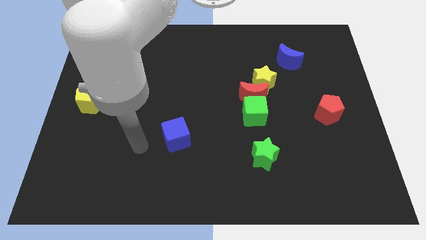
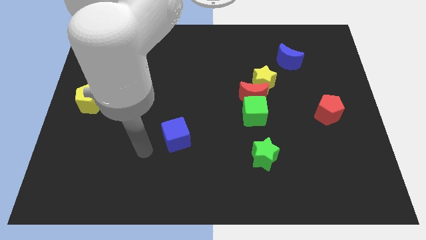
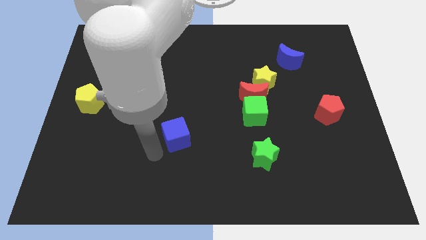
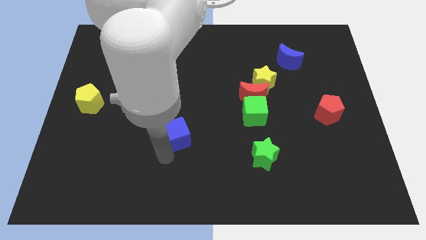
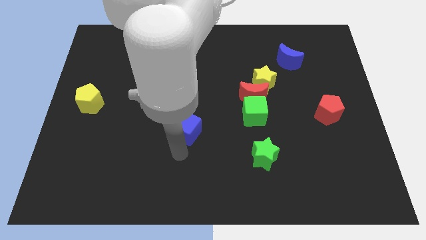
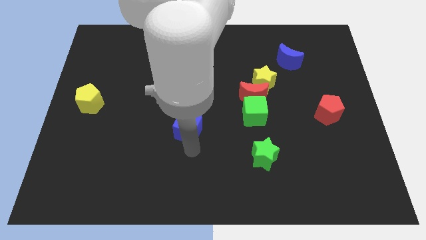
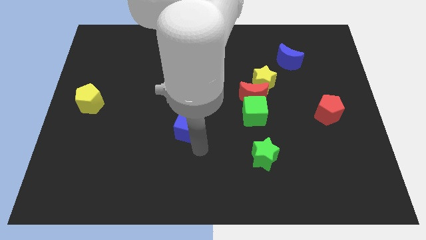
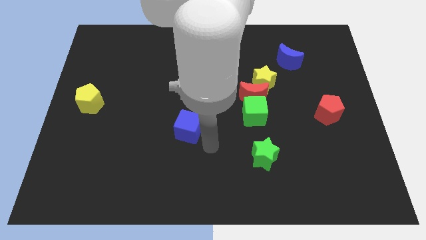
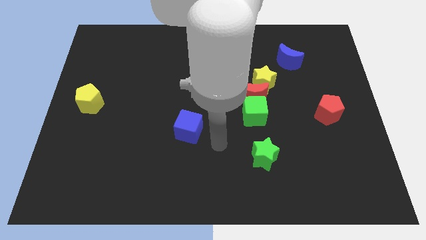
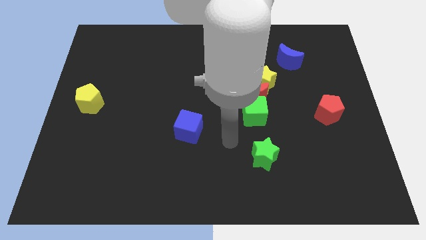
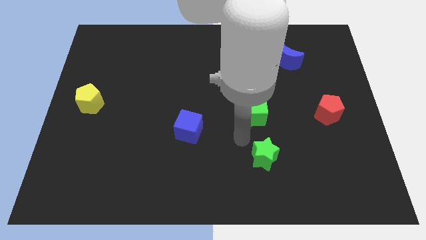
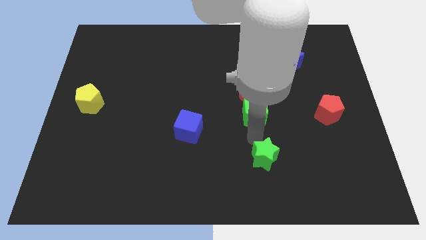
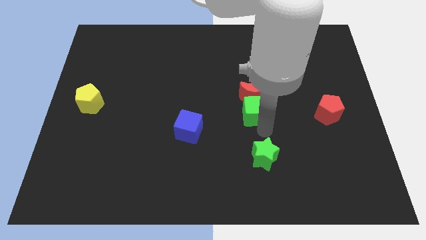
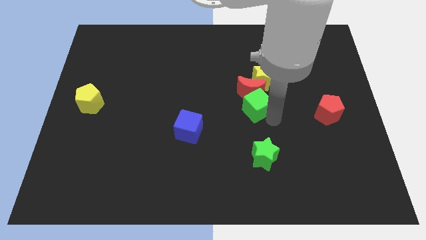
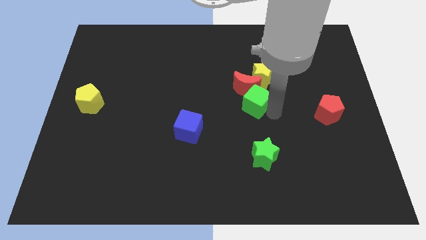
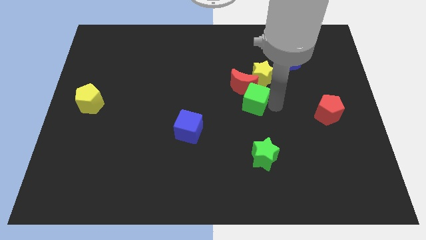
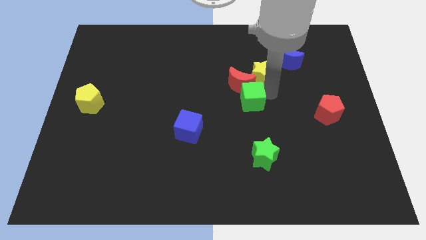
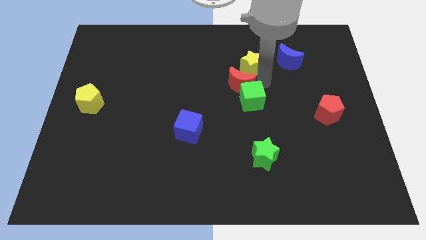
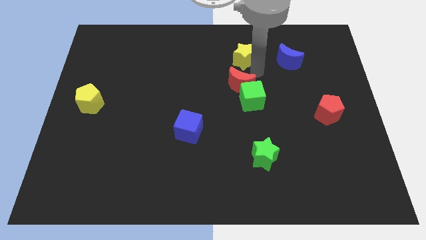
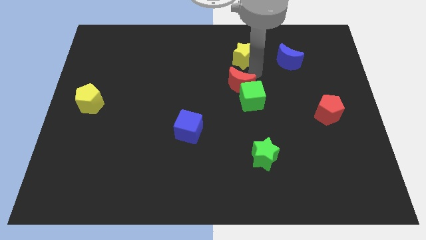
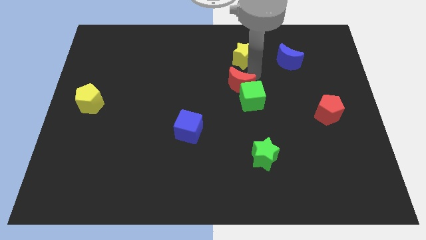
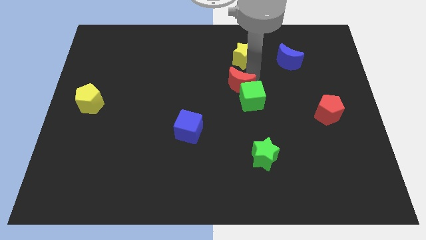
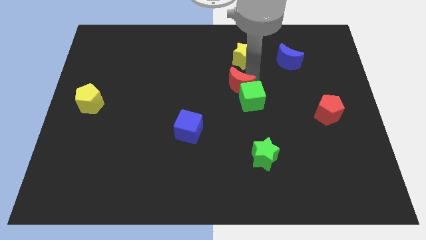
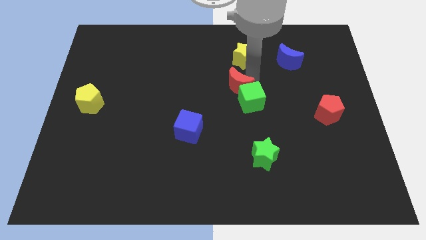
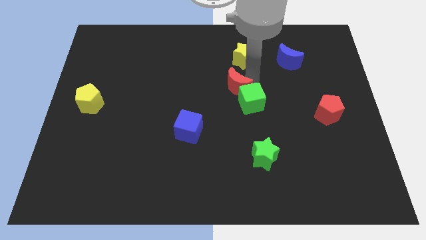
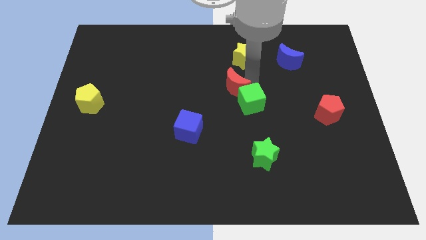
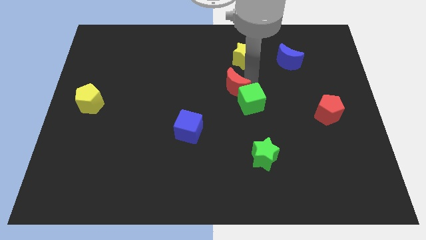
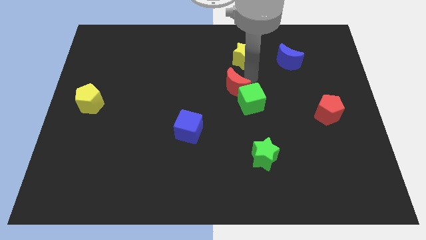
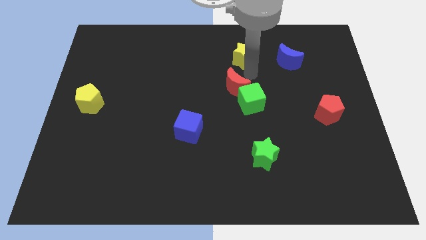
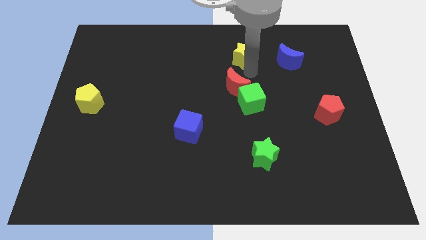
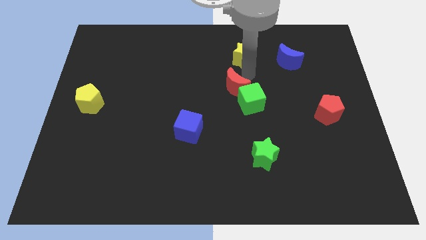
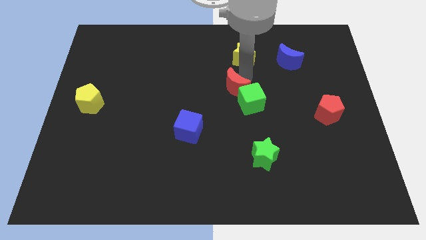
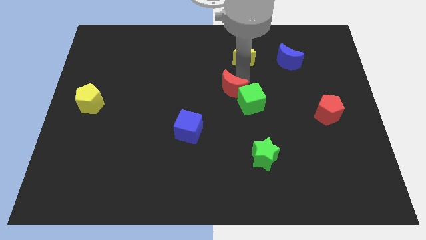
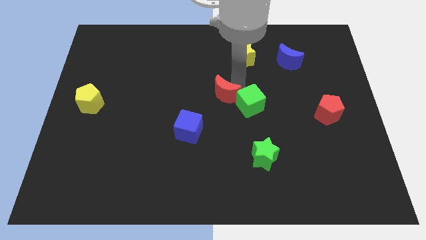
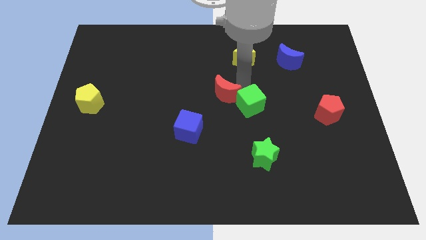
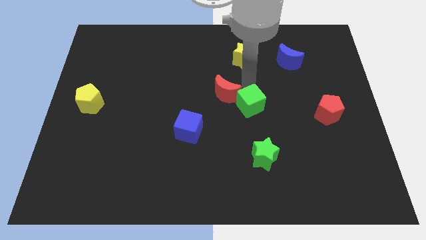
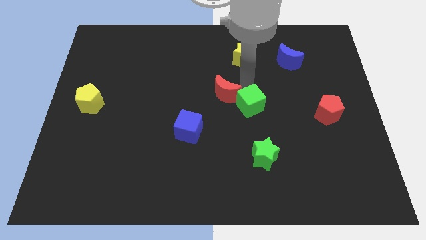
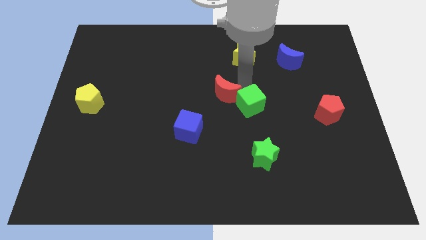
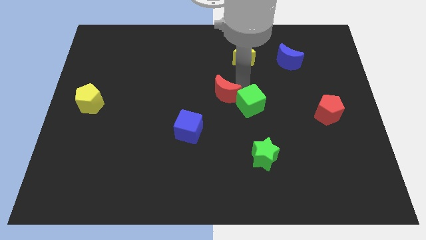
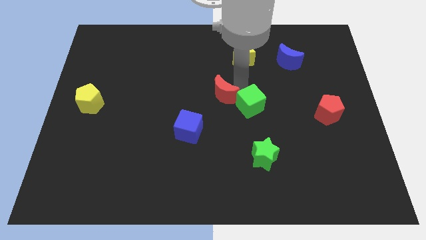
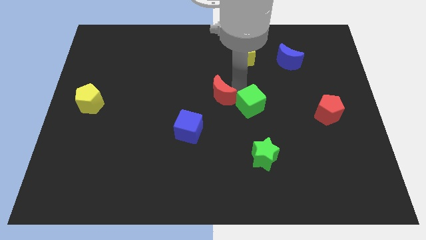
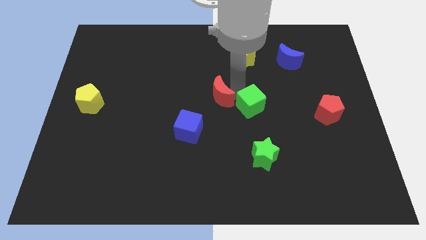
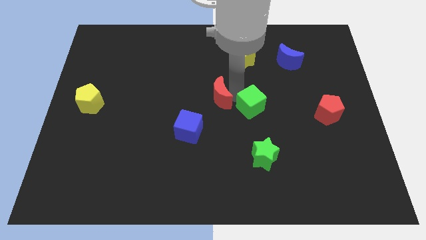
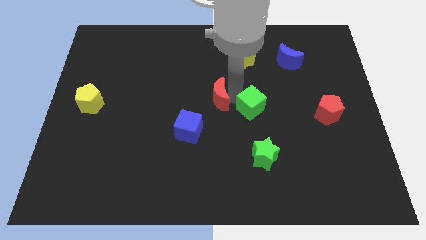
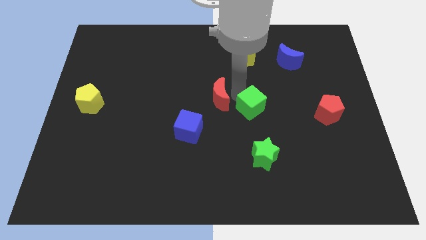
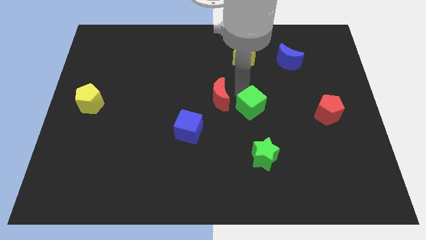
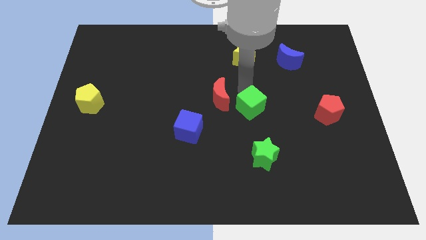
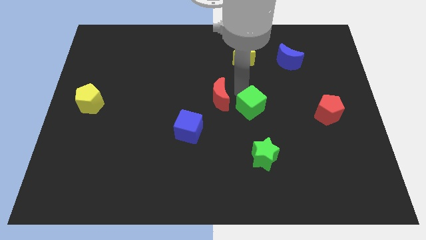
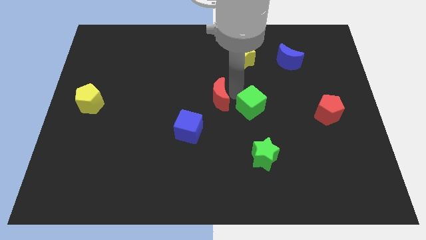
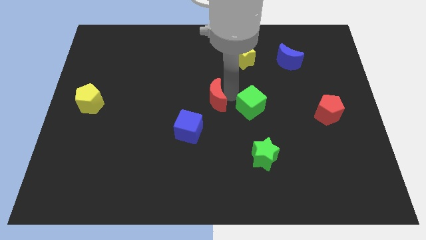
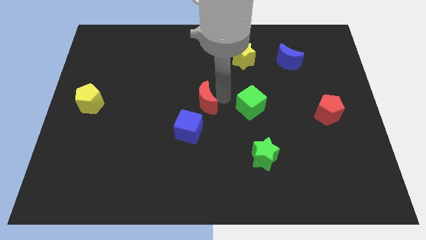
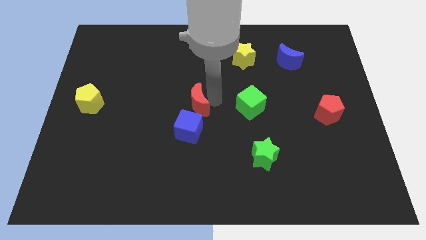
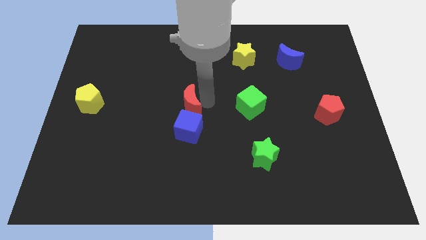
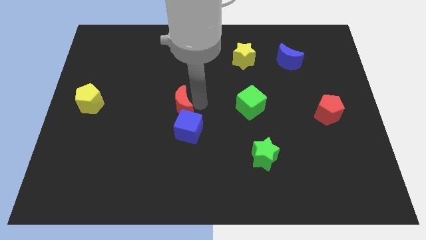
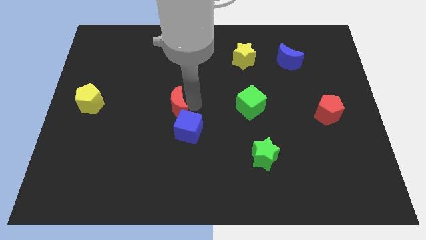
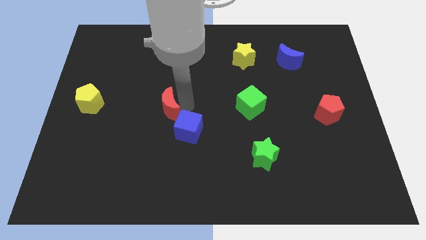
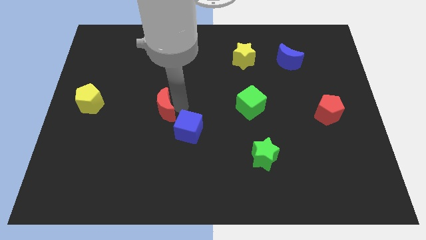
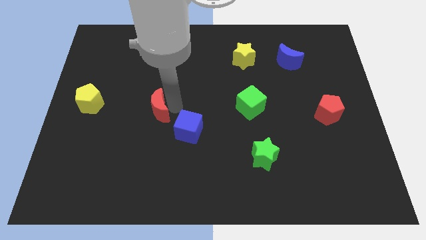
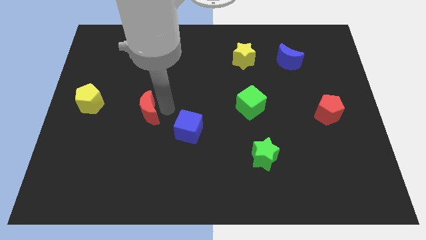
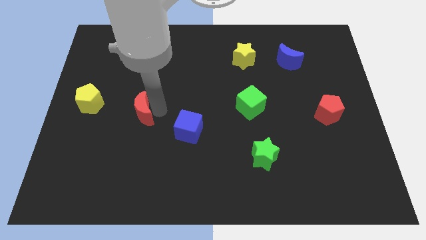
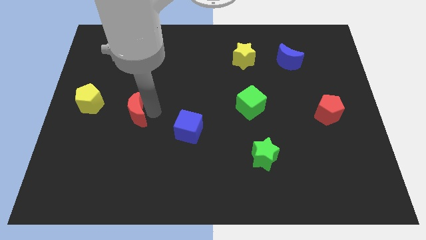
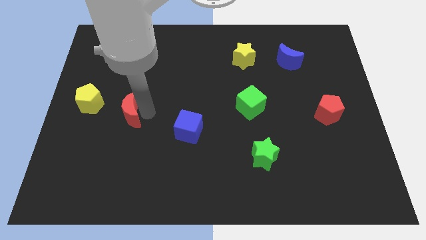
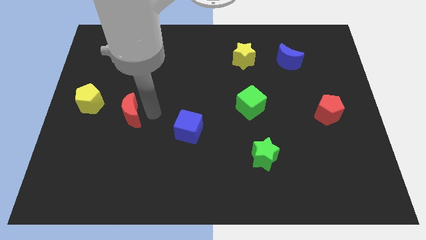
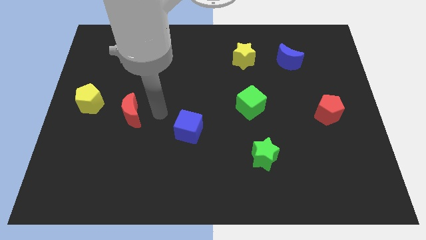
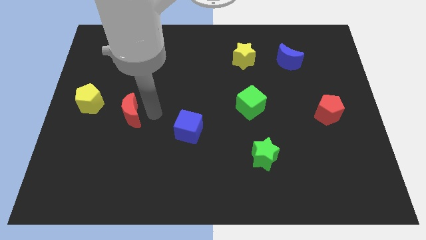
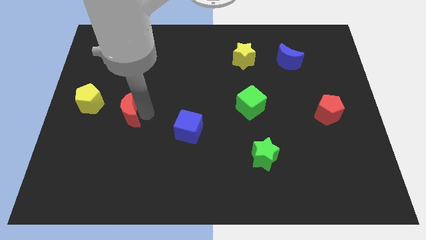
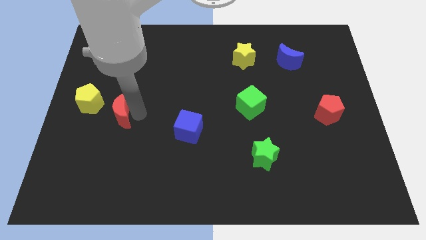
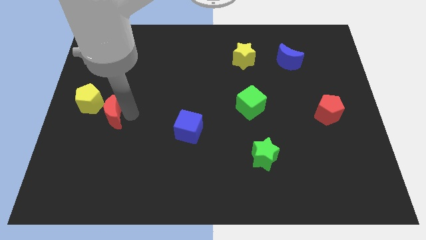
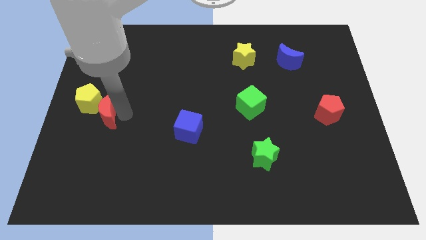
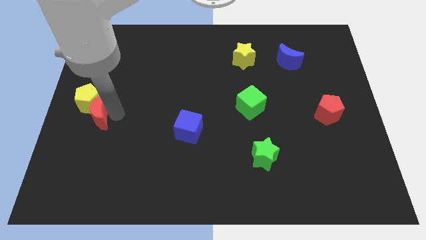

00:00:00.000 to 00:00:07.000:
push the red moon to the left side of the board
